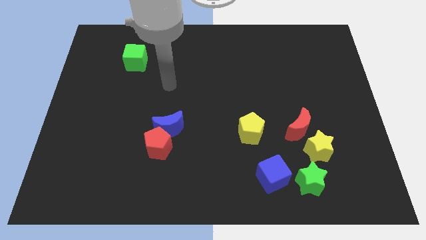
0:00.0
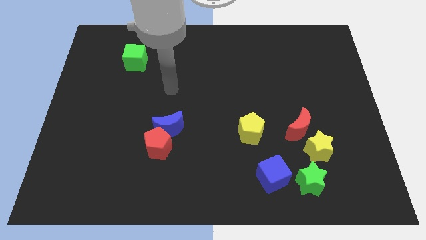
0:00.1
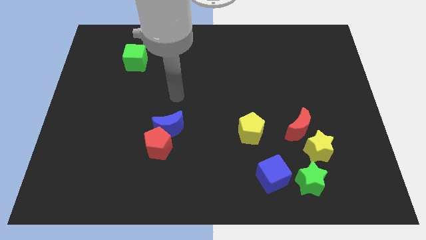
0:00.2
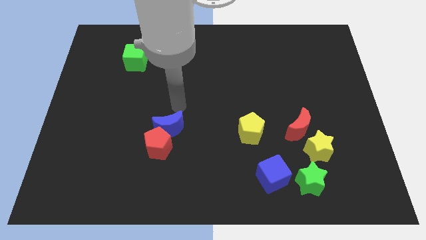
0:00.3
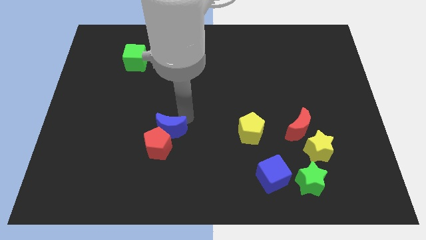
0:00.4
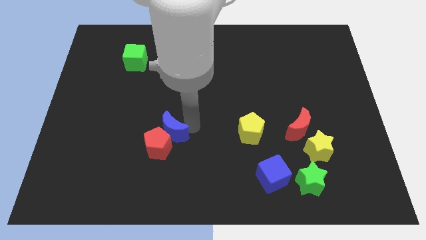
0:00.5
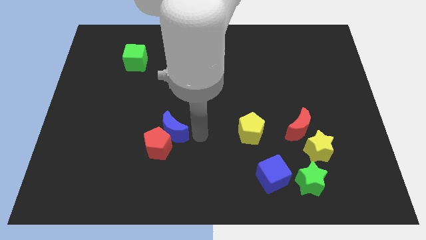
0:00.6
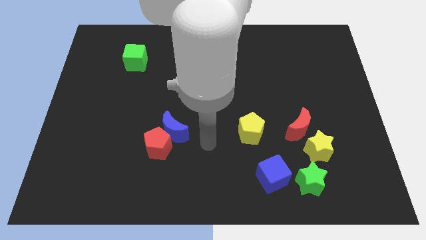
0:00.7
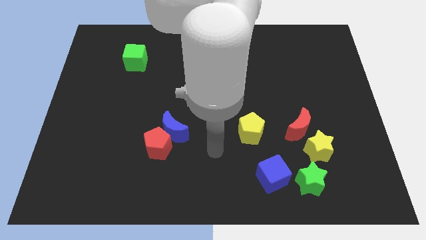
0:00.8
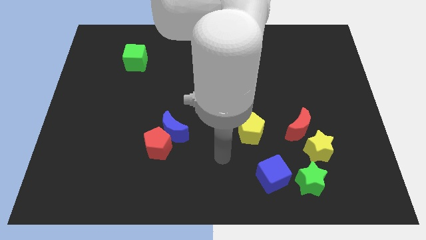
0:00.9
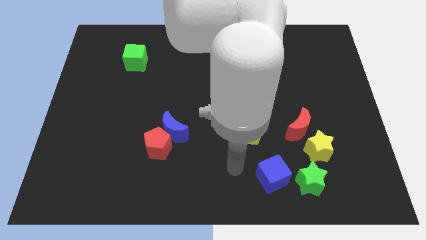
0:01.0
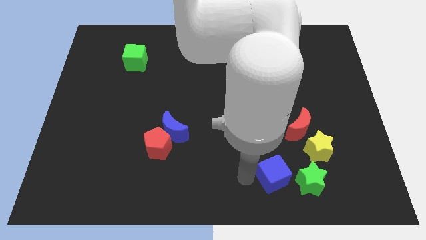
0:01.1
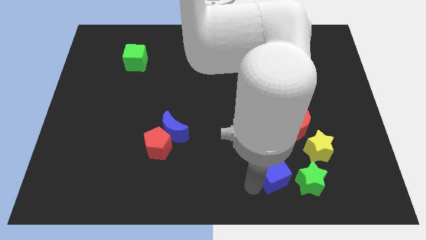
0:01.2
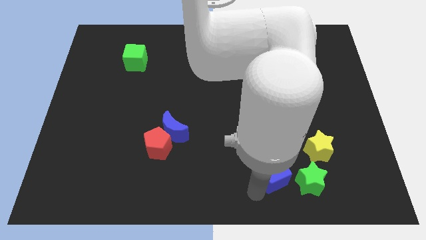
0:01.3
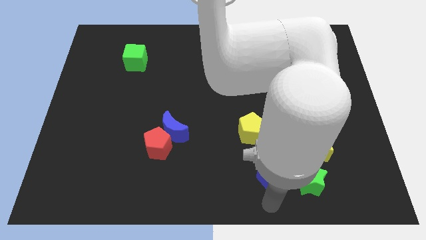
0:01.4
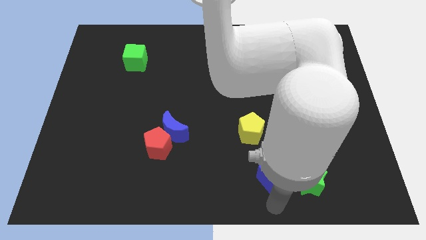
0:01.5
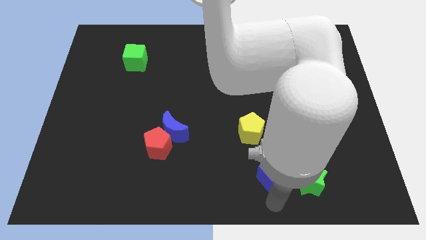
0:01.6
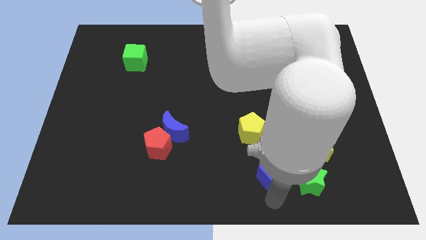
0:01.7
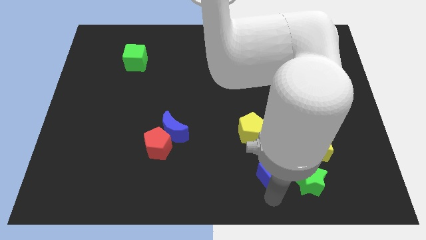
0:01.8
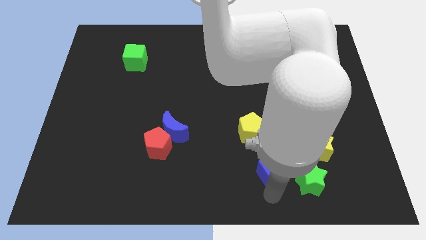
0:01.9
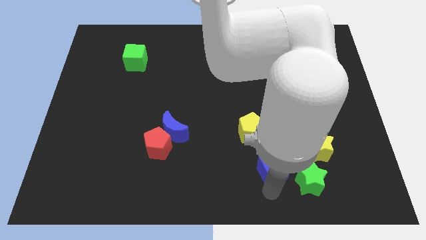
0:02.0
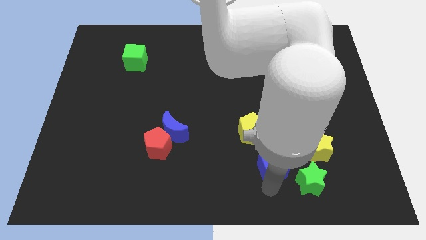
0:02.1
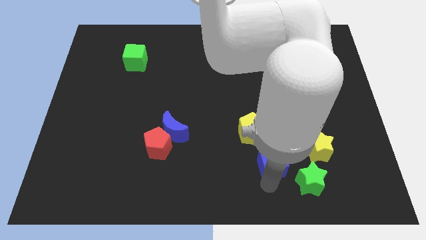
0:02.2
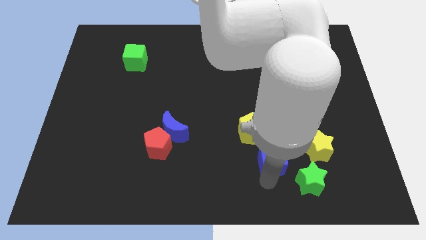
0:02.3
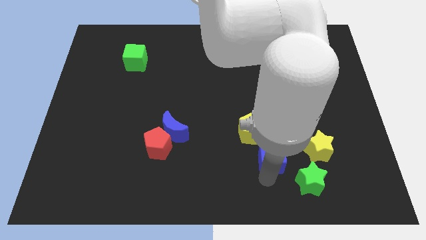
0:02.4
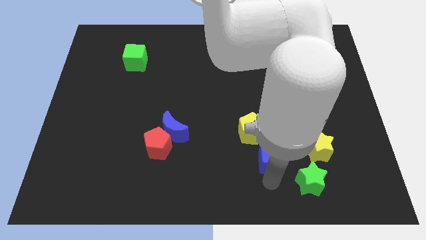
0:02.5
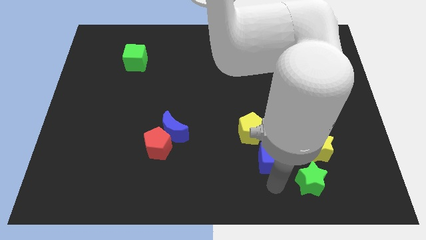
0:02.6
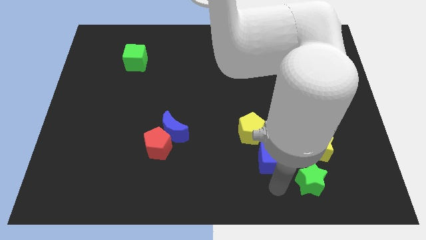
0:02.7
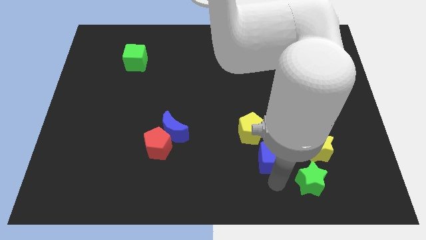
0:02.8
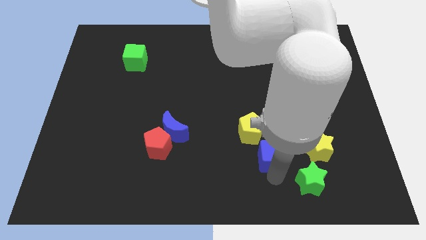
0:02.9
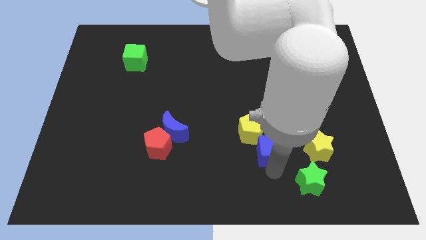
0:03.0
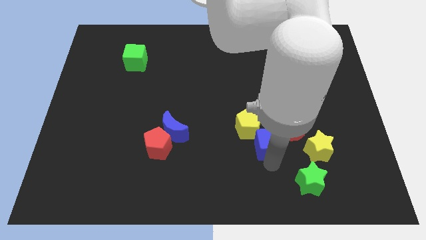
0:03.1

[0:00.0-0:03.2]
push the blue cube somewhat up

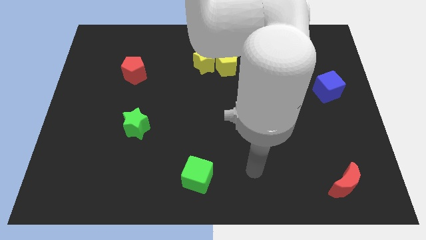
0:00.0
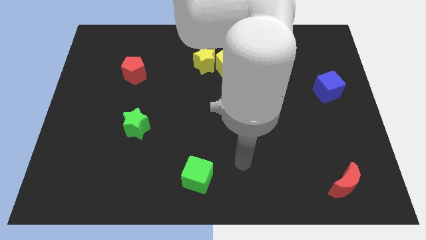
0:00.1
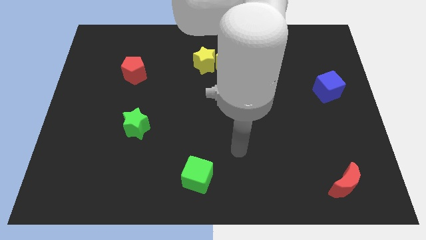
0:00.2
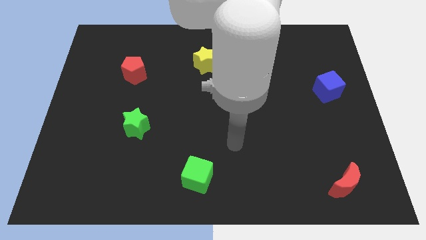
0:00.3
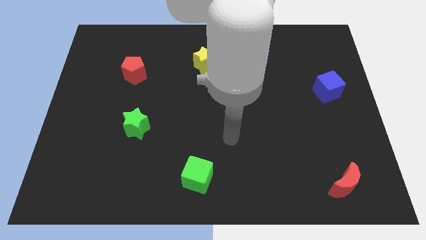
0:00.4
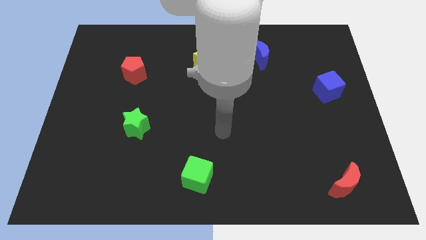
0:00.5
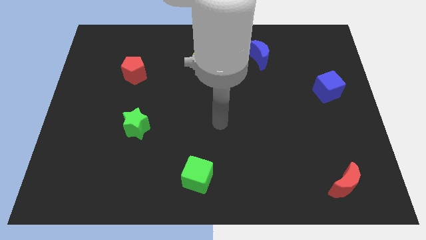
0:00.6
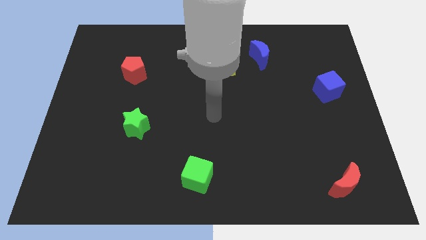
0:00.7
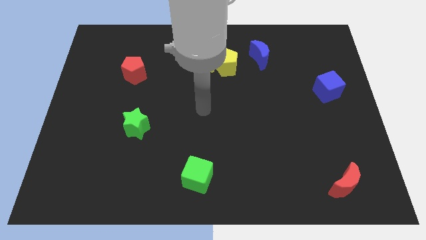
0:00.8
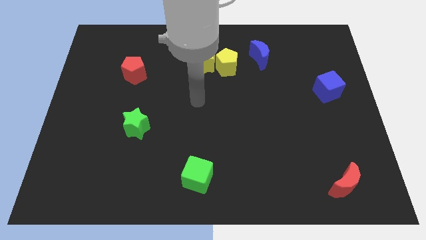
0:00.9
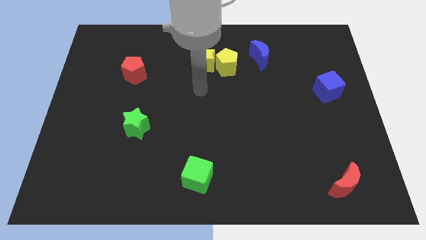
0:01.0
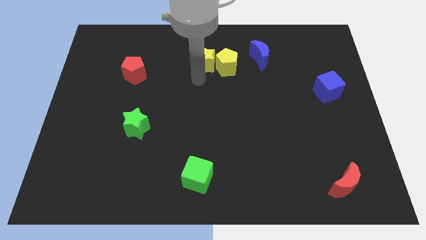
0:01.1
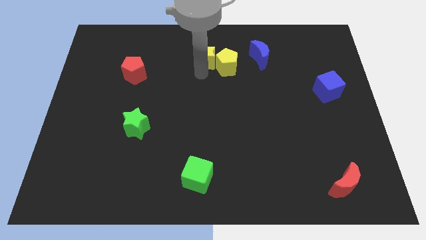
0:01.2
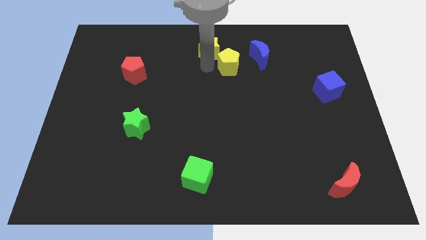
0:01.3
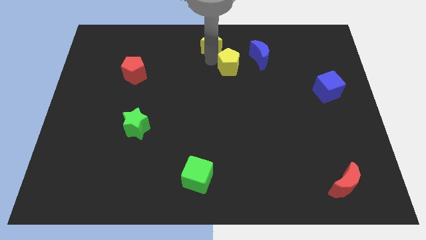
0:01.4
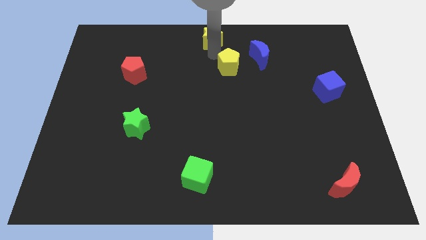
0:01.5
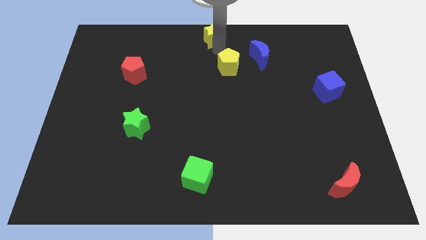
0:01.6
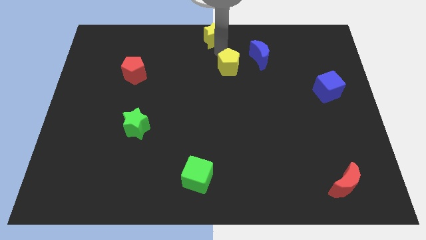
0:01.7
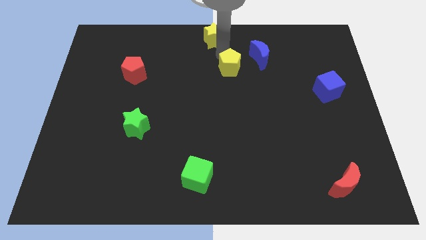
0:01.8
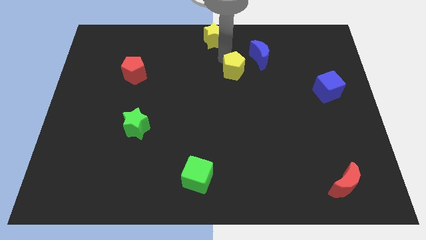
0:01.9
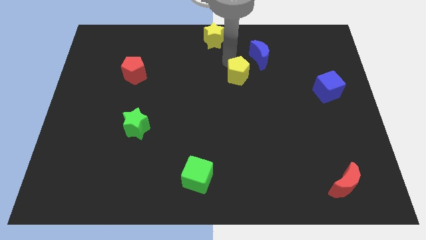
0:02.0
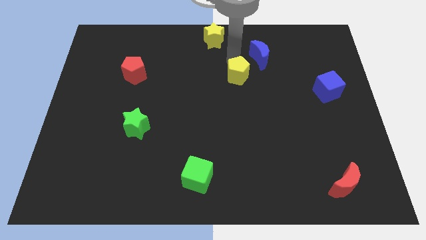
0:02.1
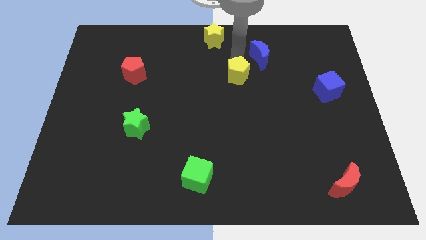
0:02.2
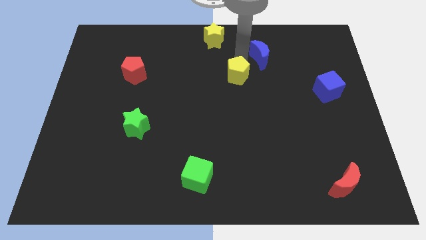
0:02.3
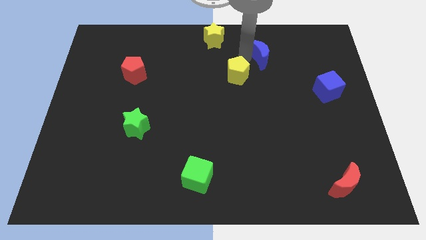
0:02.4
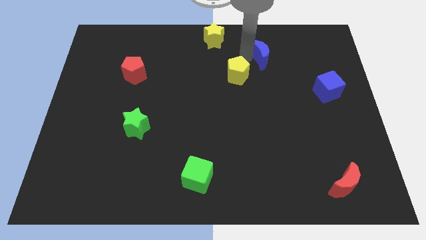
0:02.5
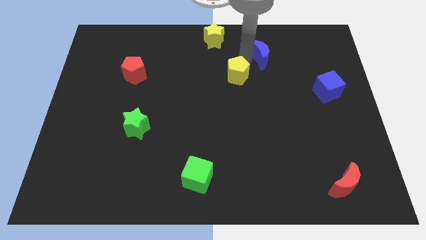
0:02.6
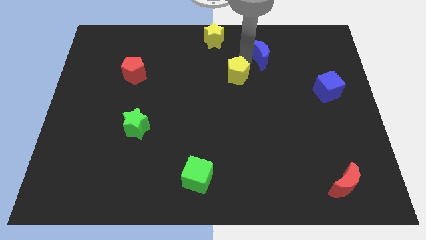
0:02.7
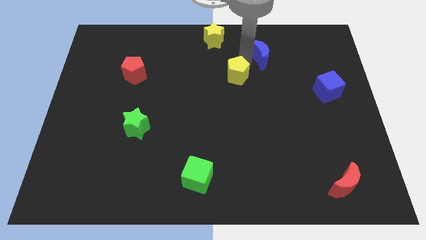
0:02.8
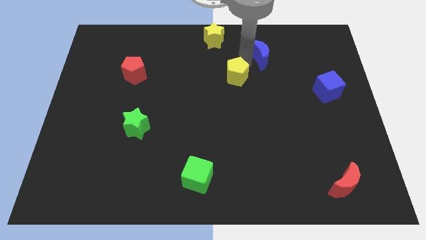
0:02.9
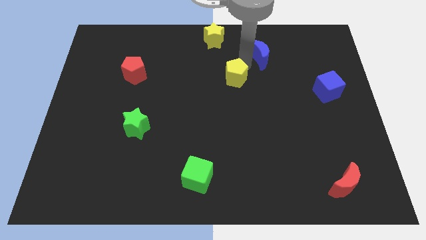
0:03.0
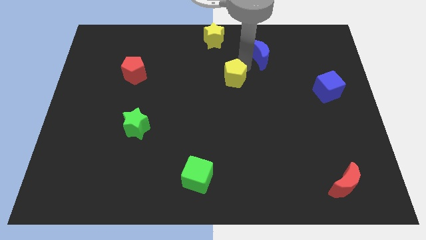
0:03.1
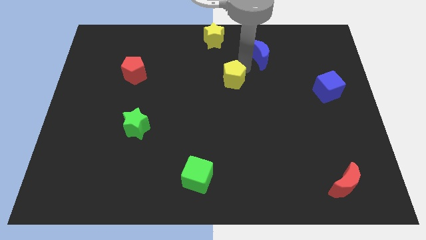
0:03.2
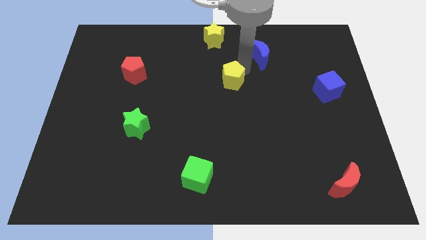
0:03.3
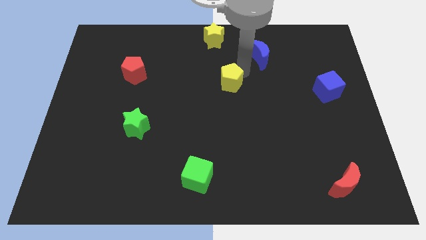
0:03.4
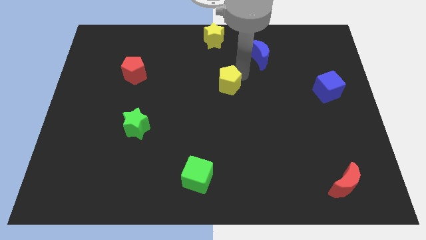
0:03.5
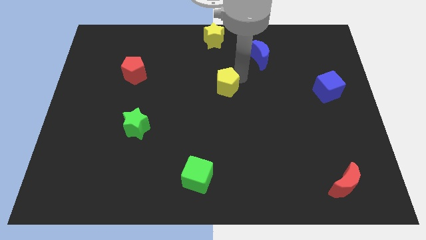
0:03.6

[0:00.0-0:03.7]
move the yellow pentagon downwards slightly

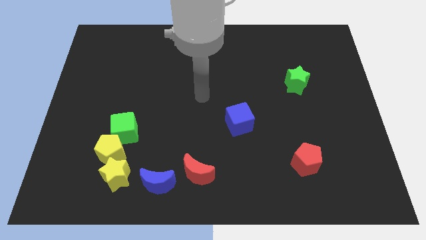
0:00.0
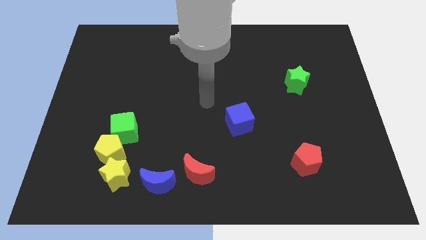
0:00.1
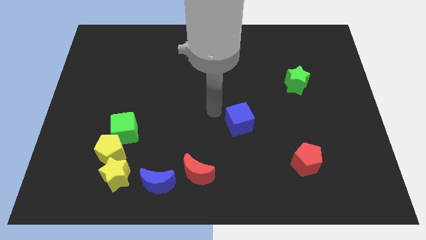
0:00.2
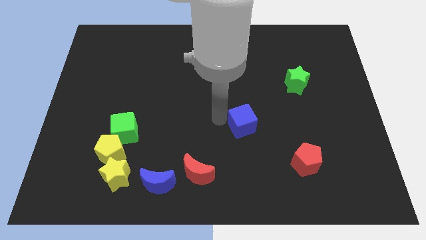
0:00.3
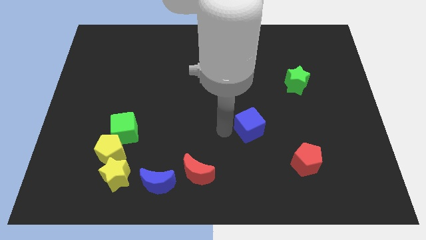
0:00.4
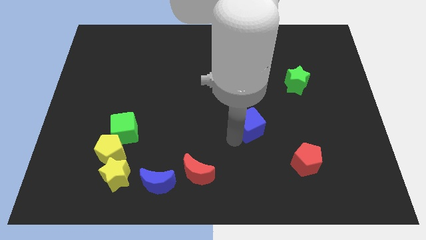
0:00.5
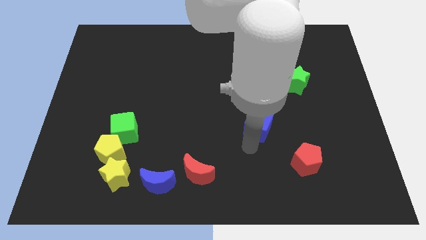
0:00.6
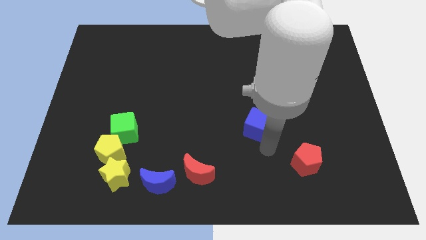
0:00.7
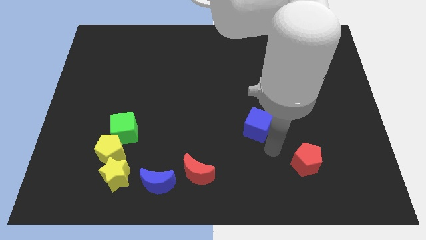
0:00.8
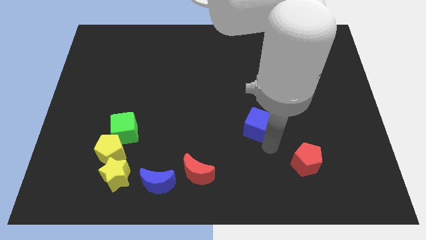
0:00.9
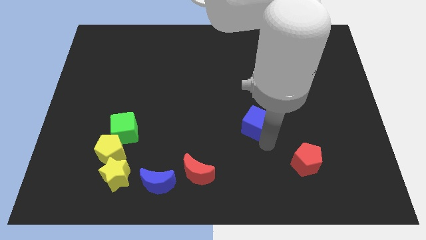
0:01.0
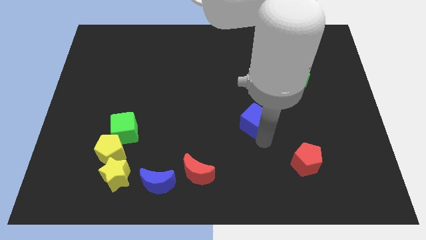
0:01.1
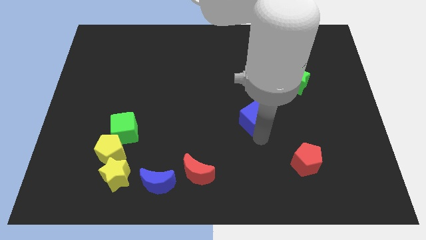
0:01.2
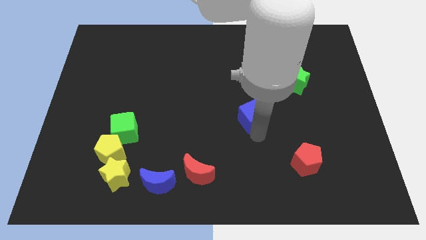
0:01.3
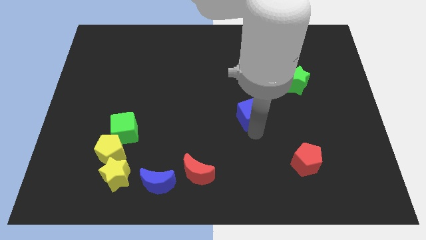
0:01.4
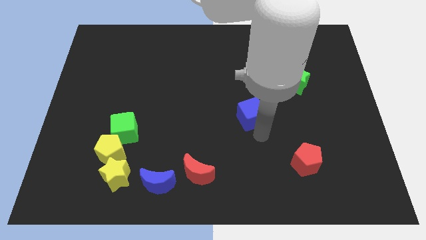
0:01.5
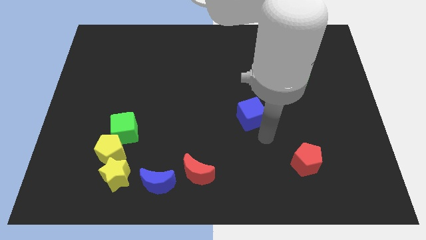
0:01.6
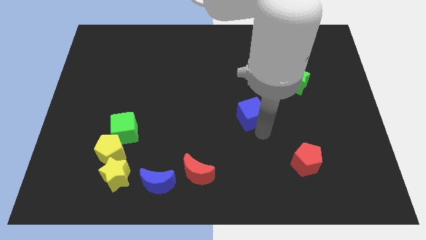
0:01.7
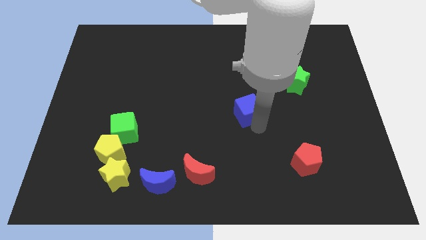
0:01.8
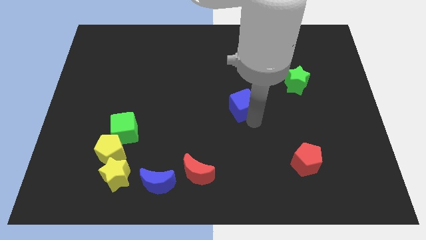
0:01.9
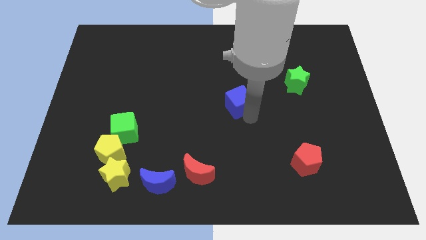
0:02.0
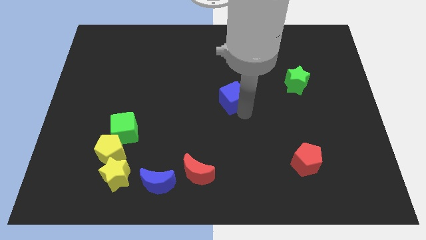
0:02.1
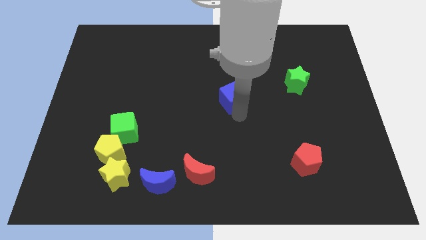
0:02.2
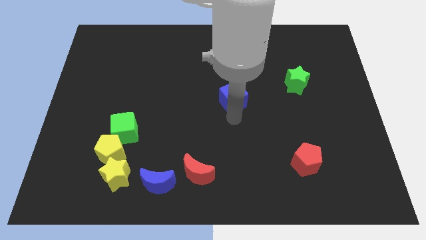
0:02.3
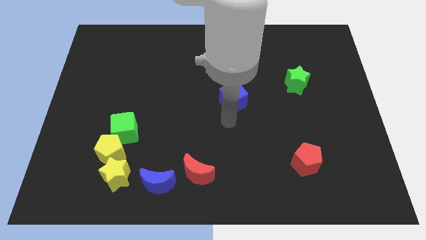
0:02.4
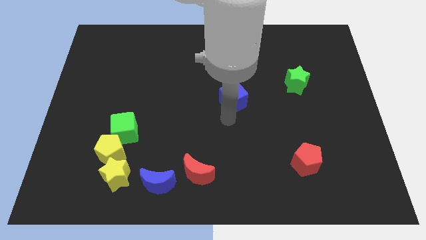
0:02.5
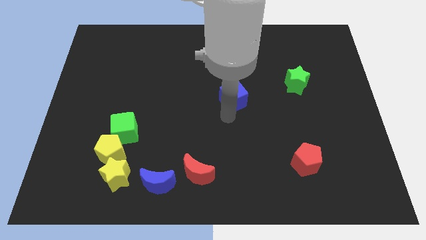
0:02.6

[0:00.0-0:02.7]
slightly move the blue cube upwards
